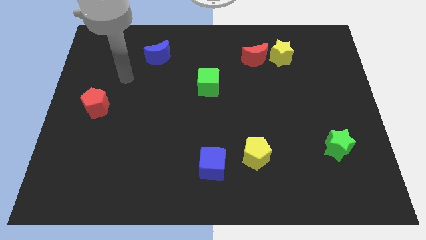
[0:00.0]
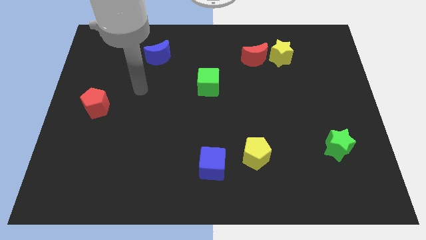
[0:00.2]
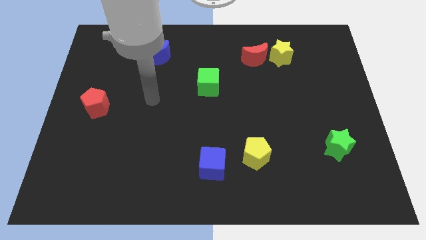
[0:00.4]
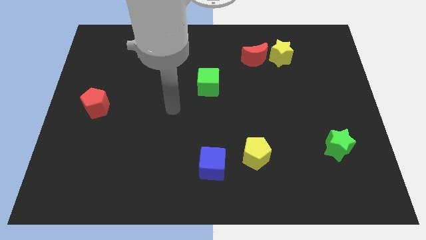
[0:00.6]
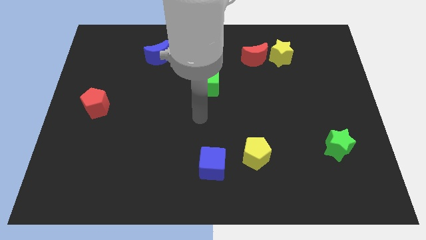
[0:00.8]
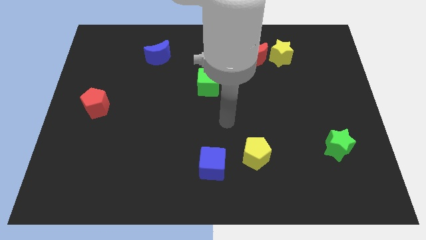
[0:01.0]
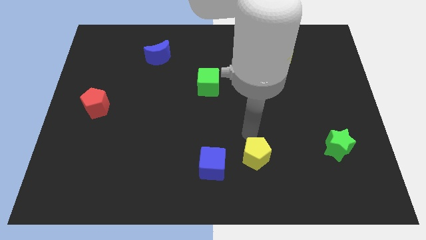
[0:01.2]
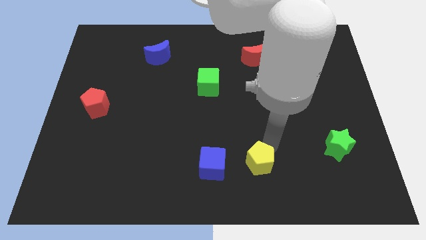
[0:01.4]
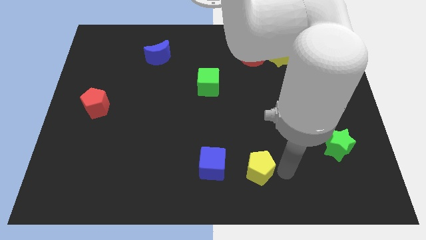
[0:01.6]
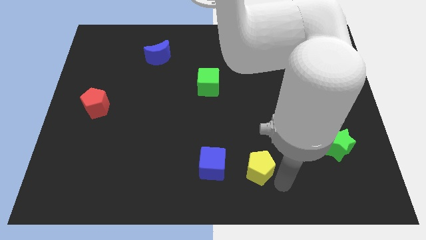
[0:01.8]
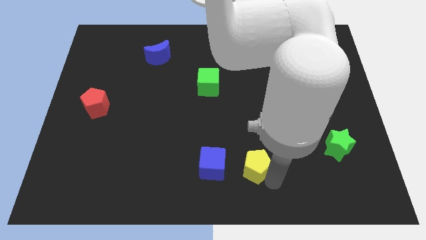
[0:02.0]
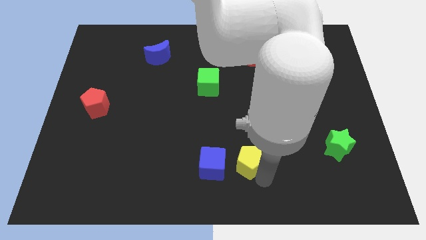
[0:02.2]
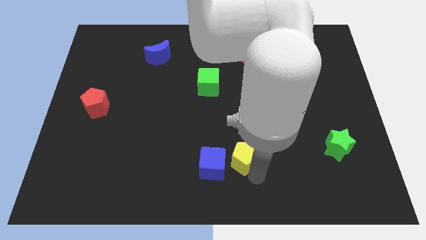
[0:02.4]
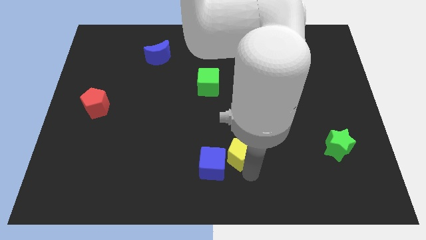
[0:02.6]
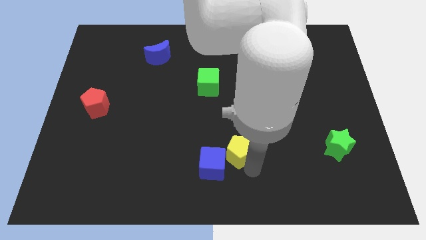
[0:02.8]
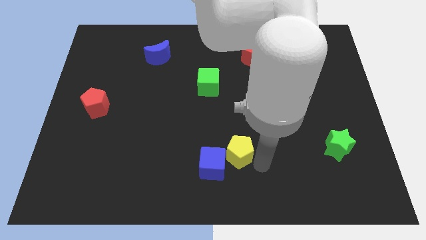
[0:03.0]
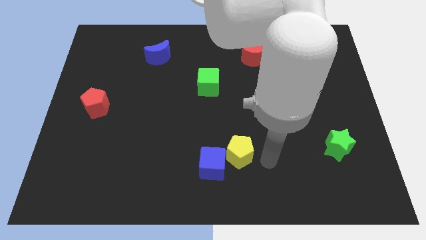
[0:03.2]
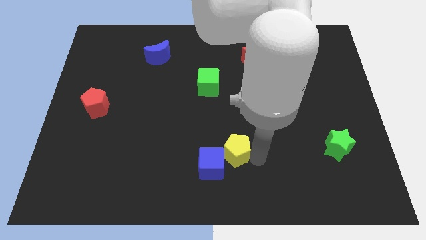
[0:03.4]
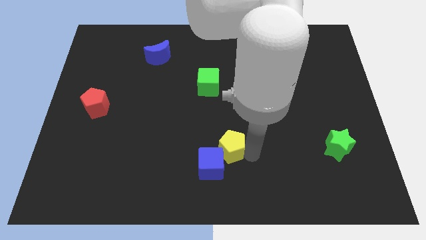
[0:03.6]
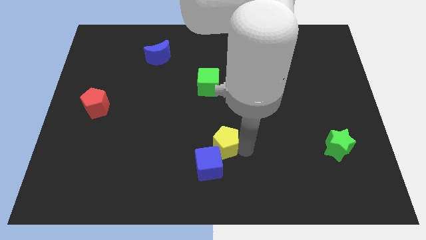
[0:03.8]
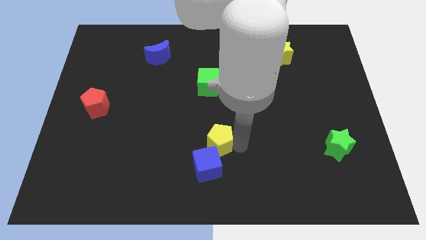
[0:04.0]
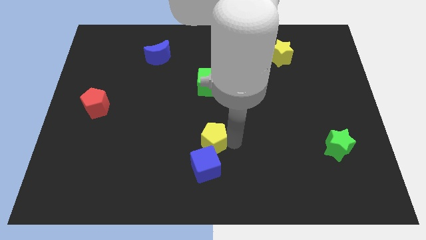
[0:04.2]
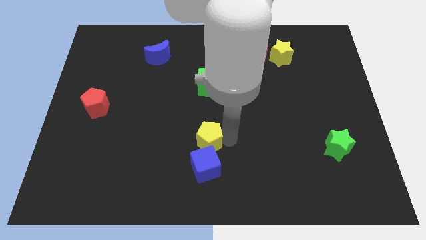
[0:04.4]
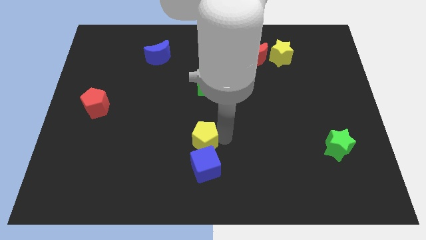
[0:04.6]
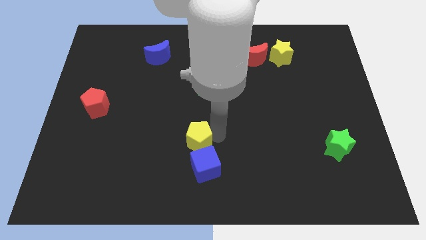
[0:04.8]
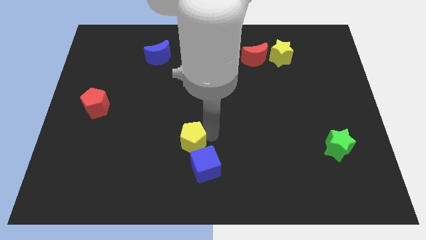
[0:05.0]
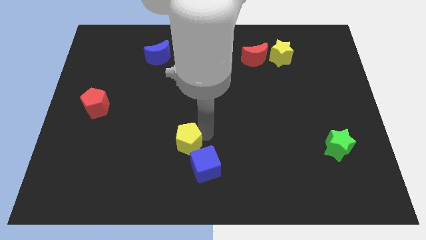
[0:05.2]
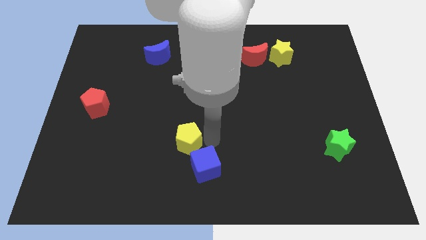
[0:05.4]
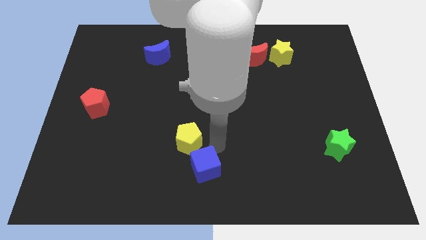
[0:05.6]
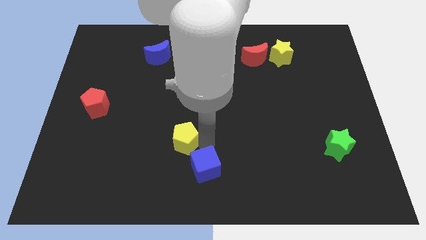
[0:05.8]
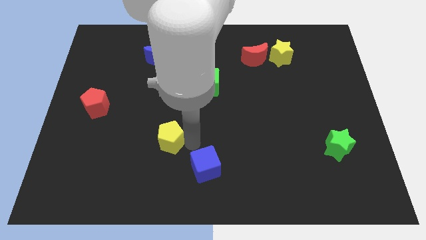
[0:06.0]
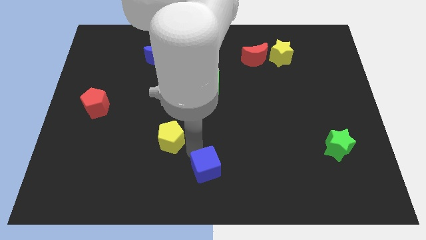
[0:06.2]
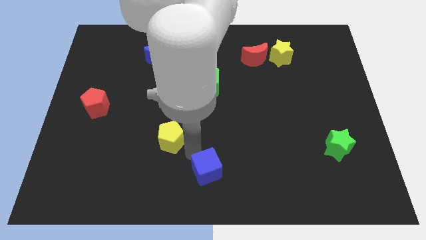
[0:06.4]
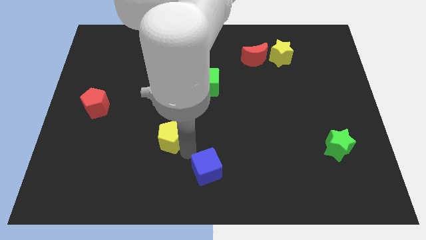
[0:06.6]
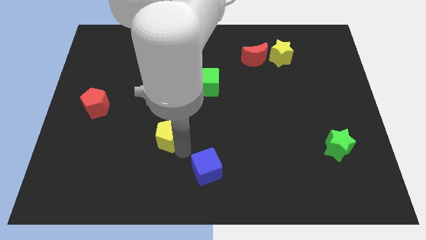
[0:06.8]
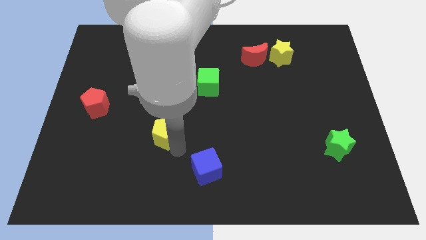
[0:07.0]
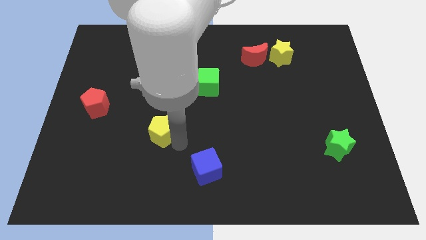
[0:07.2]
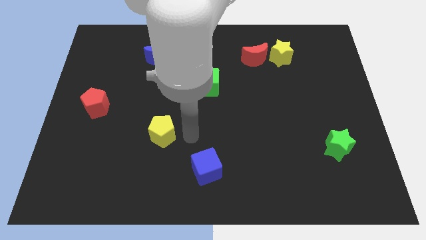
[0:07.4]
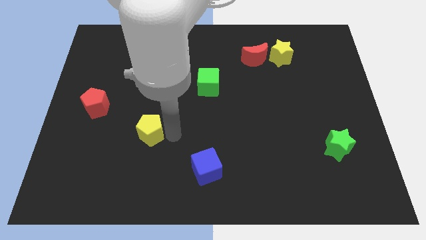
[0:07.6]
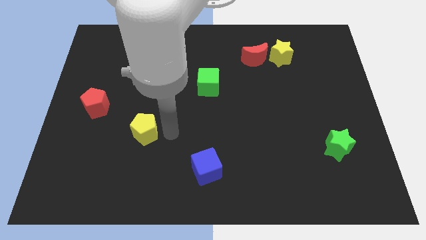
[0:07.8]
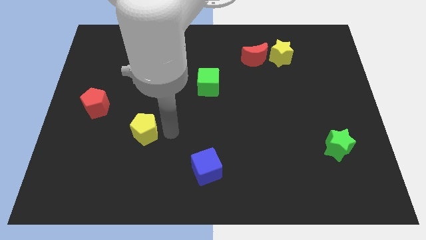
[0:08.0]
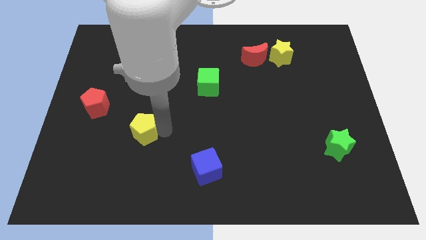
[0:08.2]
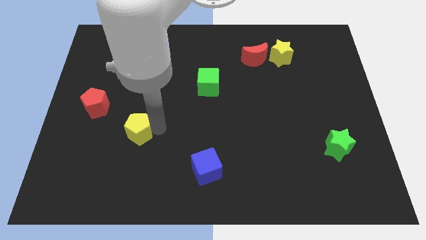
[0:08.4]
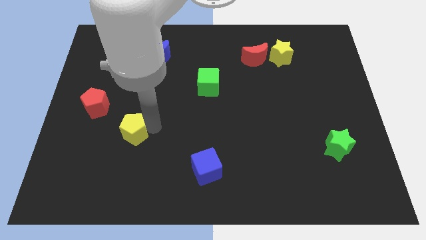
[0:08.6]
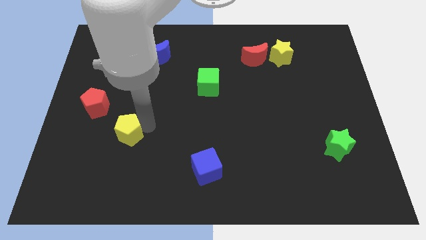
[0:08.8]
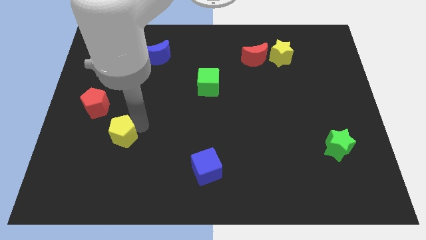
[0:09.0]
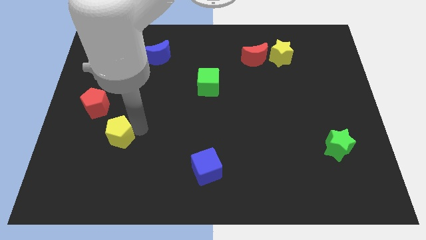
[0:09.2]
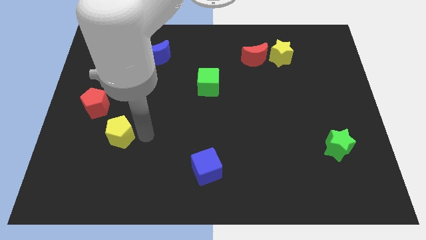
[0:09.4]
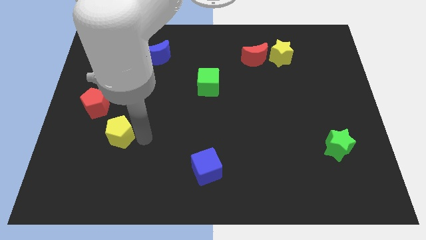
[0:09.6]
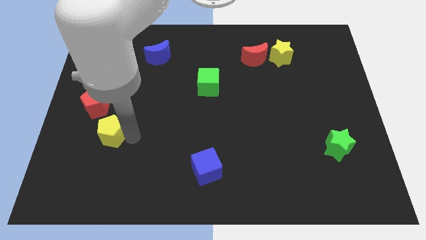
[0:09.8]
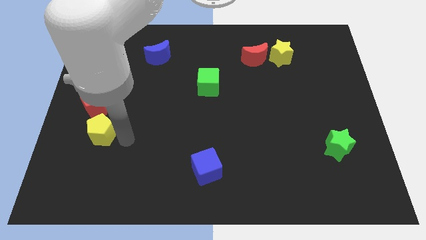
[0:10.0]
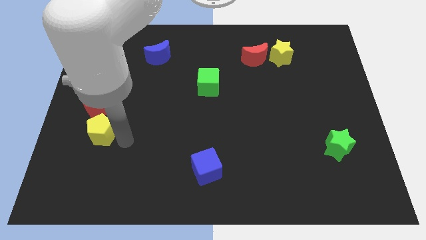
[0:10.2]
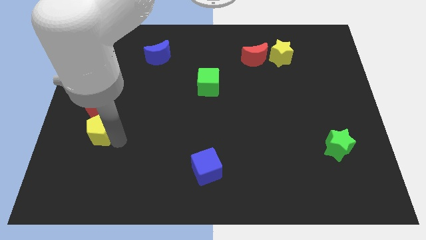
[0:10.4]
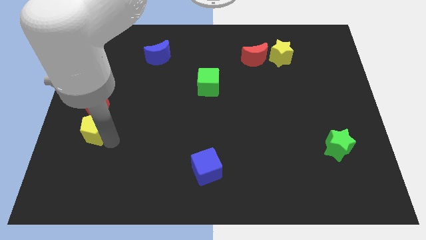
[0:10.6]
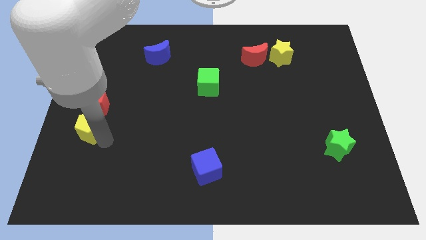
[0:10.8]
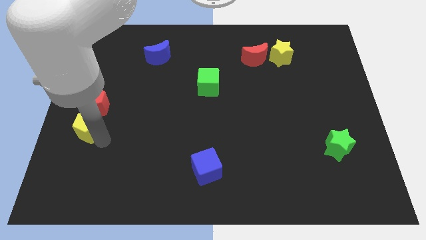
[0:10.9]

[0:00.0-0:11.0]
slide the yellow pentagon to the left side of the board

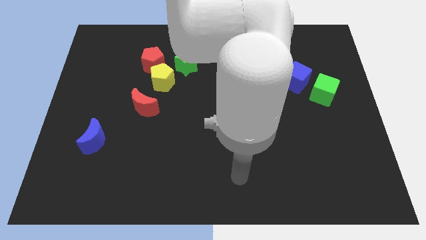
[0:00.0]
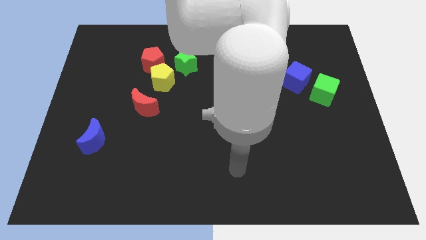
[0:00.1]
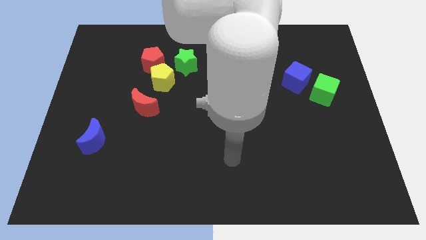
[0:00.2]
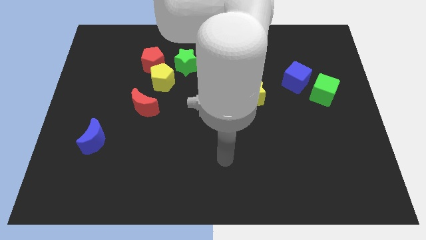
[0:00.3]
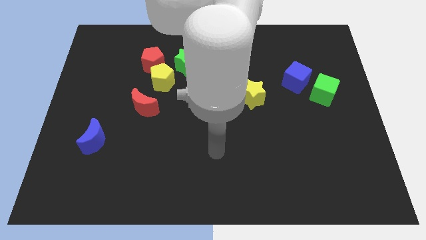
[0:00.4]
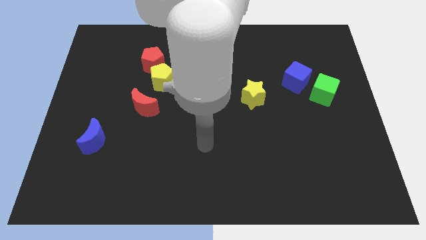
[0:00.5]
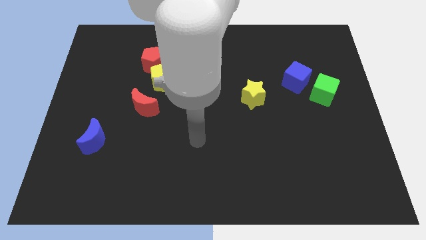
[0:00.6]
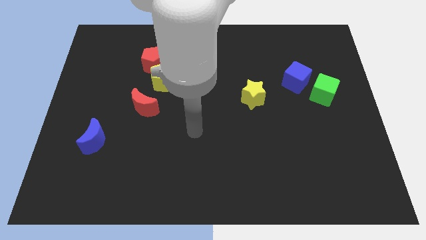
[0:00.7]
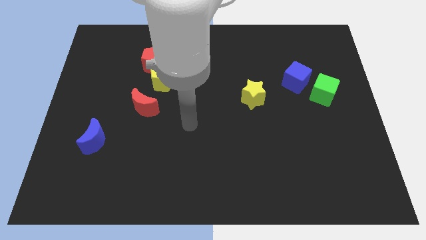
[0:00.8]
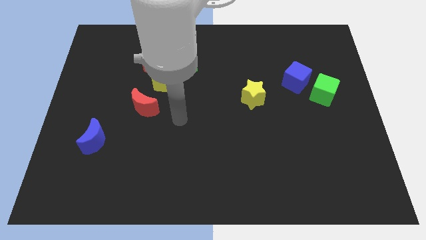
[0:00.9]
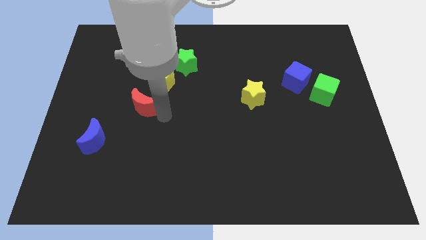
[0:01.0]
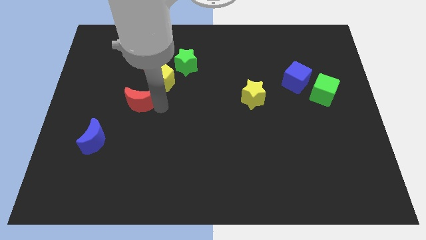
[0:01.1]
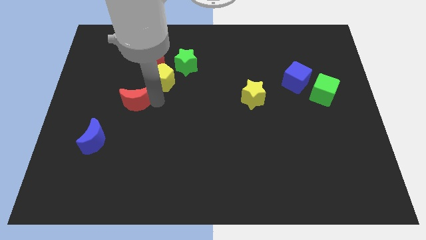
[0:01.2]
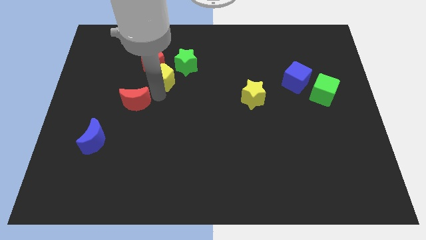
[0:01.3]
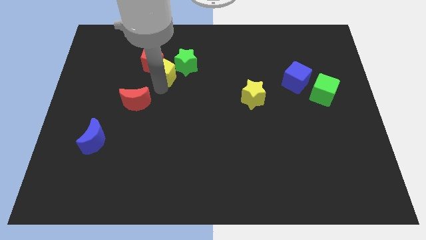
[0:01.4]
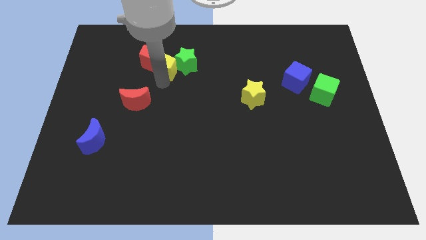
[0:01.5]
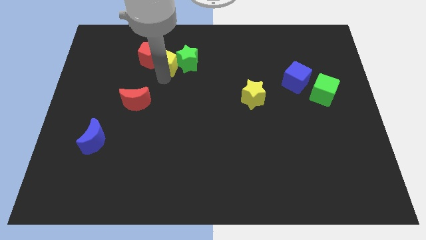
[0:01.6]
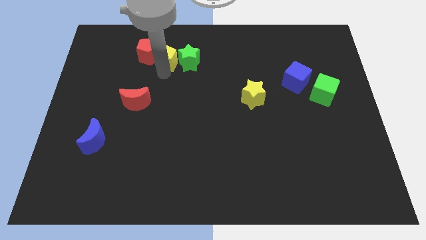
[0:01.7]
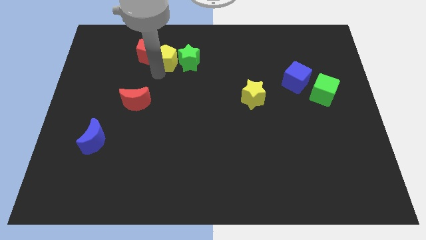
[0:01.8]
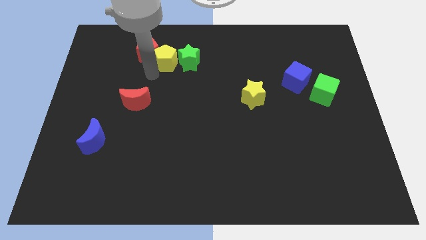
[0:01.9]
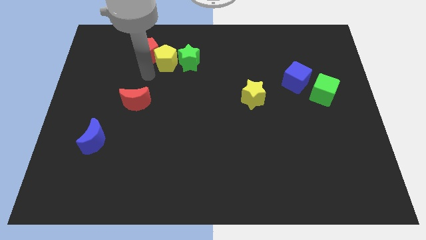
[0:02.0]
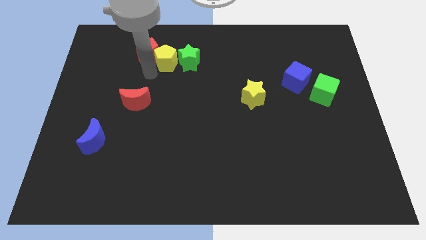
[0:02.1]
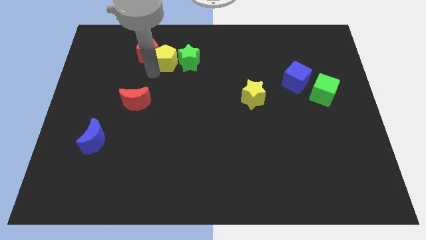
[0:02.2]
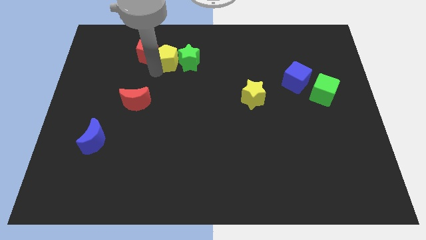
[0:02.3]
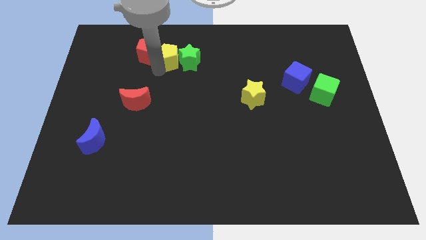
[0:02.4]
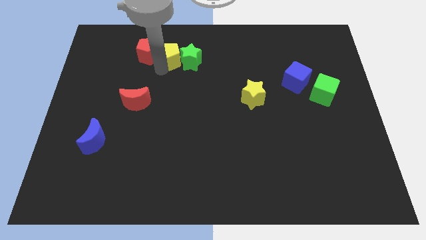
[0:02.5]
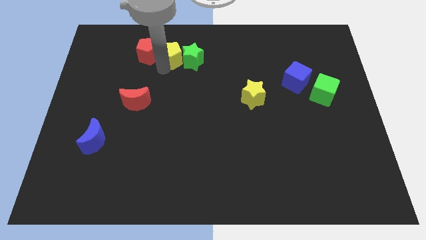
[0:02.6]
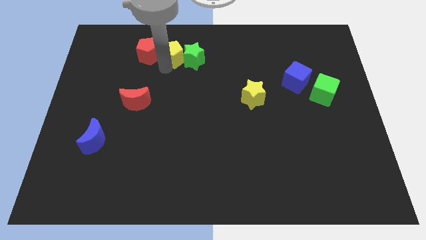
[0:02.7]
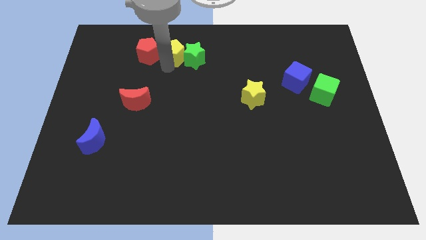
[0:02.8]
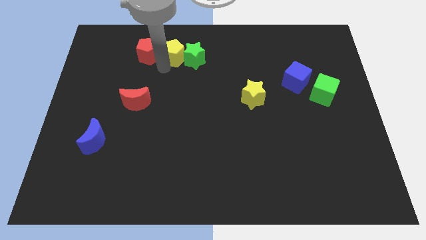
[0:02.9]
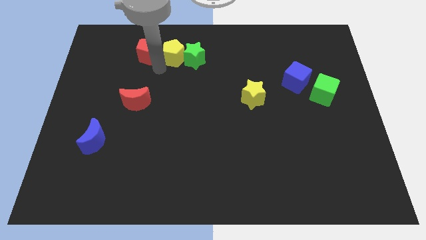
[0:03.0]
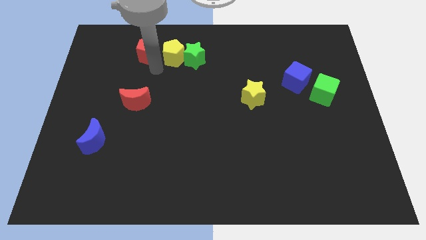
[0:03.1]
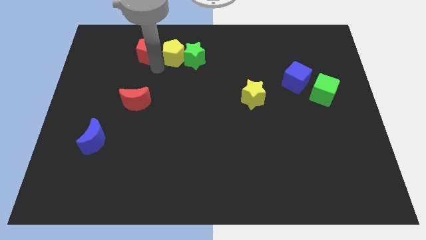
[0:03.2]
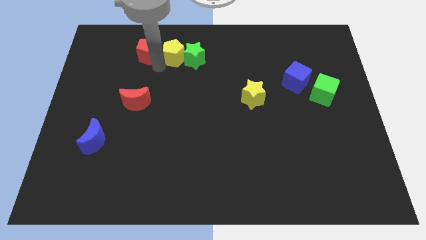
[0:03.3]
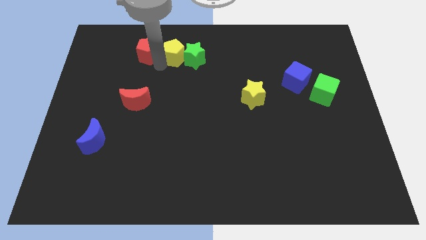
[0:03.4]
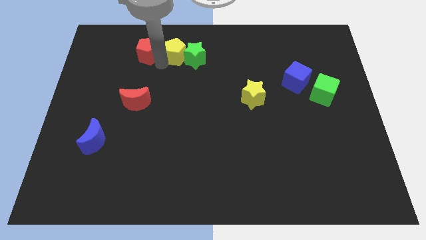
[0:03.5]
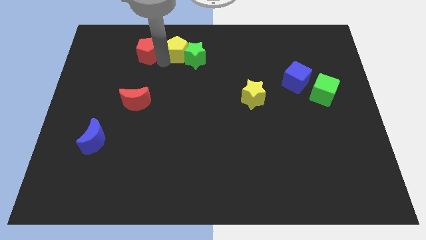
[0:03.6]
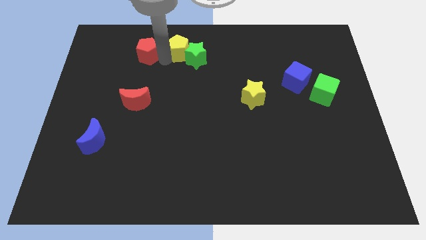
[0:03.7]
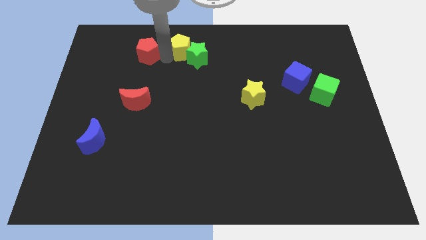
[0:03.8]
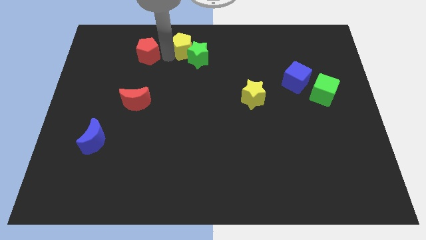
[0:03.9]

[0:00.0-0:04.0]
push the yellow pentagon to the towards your base
